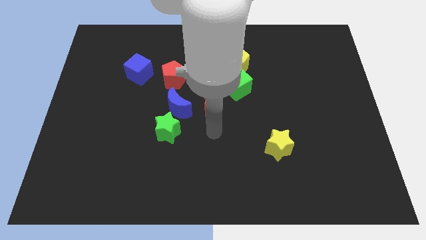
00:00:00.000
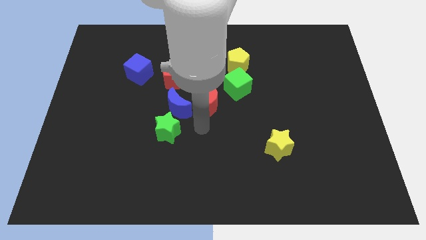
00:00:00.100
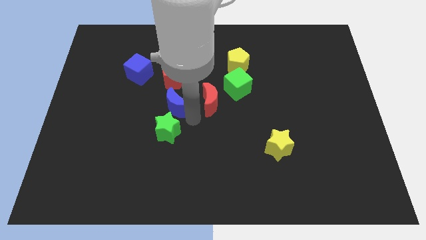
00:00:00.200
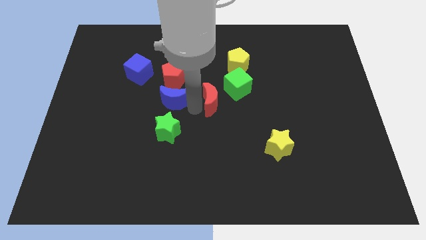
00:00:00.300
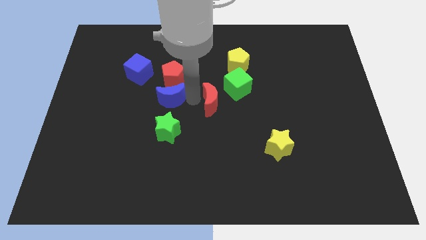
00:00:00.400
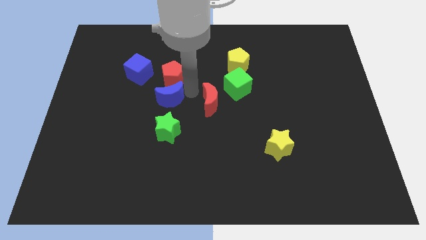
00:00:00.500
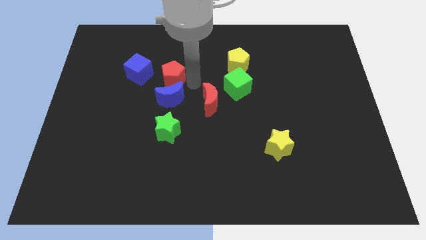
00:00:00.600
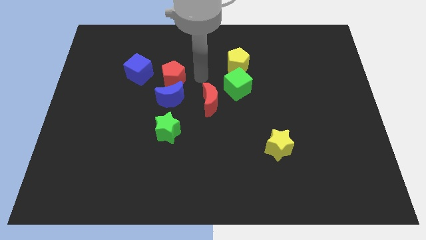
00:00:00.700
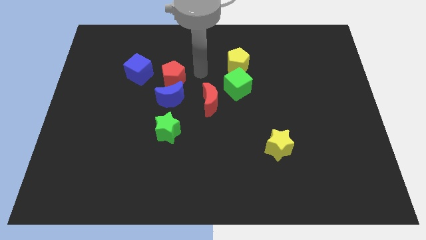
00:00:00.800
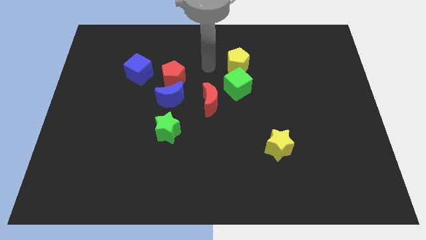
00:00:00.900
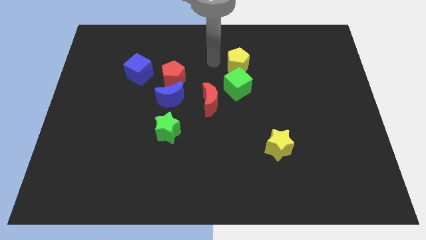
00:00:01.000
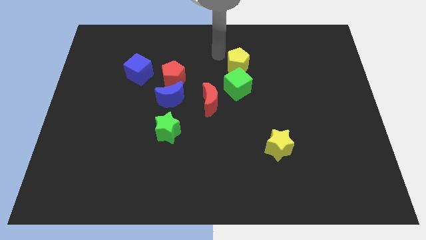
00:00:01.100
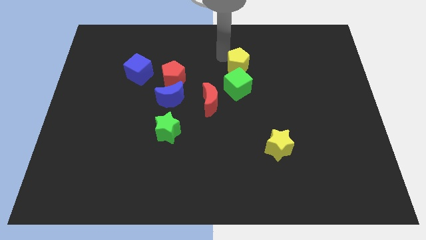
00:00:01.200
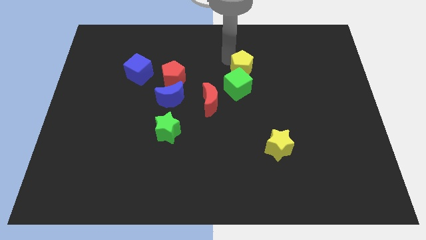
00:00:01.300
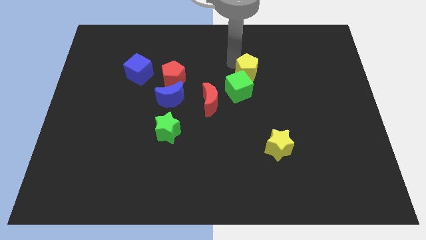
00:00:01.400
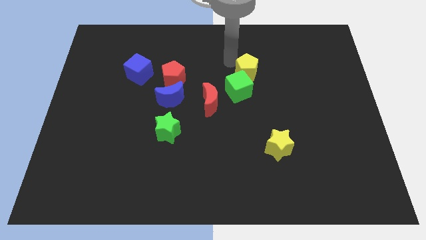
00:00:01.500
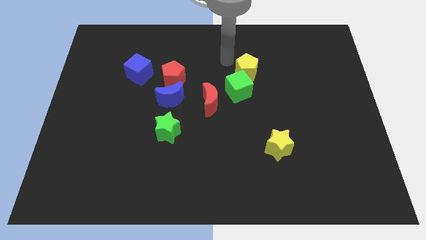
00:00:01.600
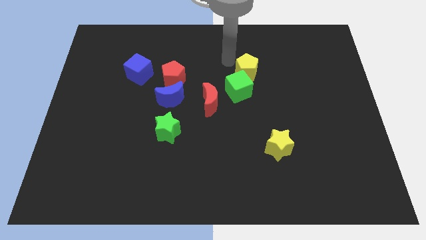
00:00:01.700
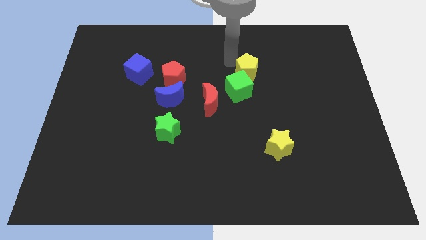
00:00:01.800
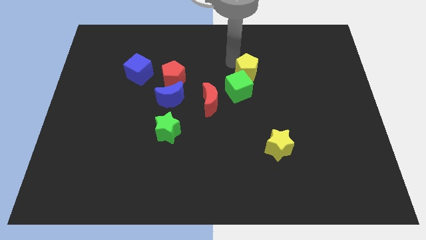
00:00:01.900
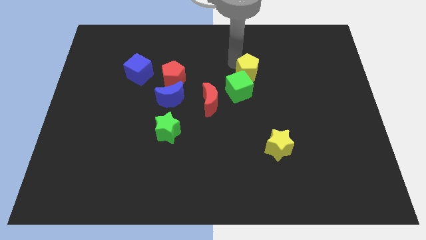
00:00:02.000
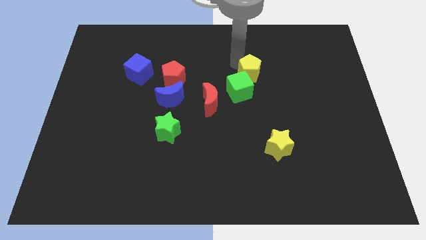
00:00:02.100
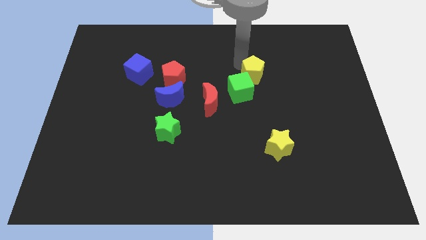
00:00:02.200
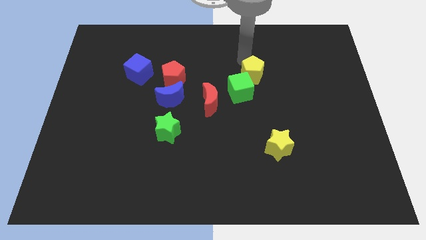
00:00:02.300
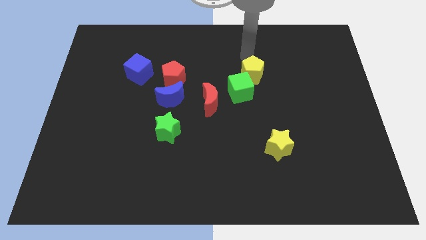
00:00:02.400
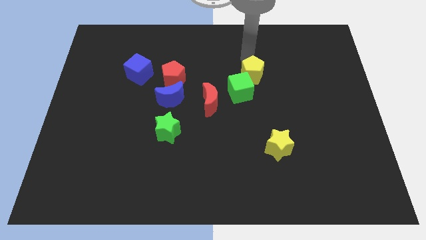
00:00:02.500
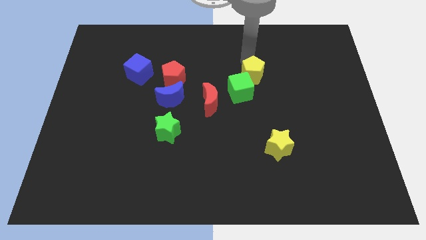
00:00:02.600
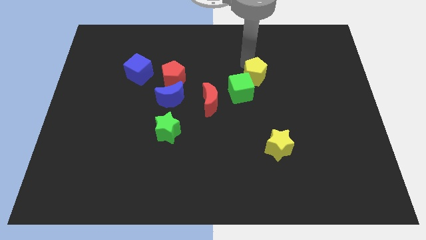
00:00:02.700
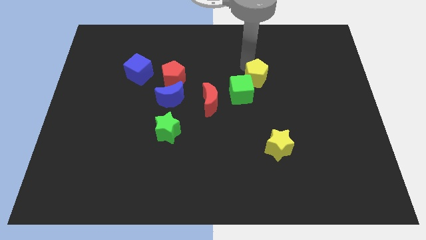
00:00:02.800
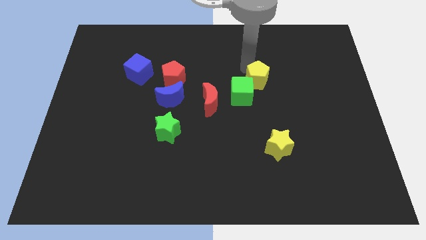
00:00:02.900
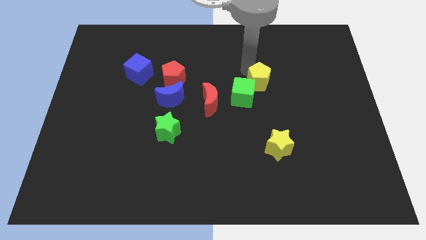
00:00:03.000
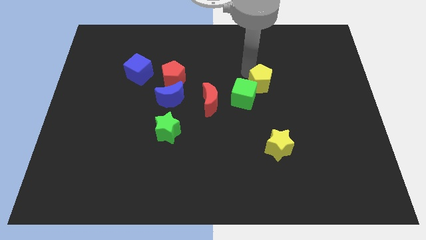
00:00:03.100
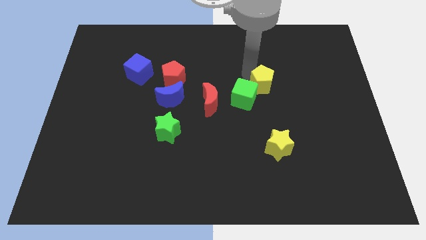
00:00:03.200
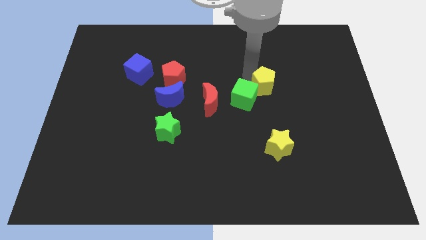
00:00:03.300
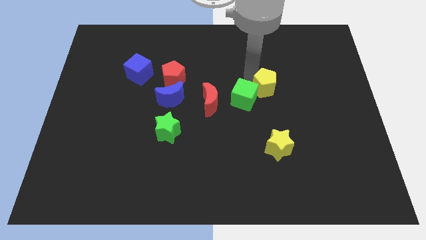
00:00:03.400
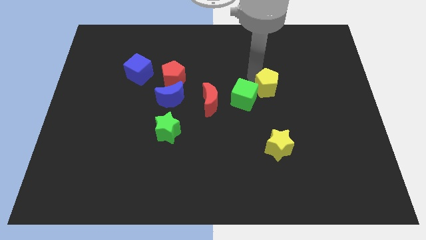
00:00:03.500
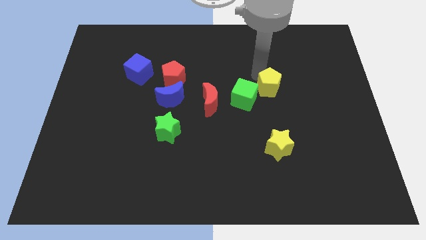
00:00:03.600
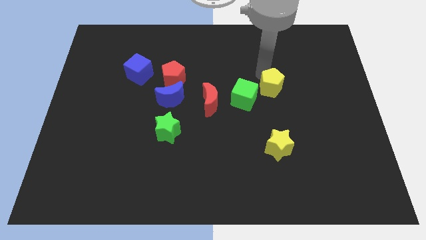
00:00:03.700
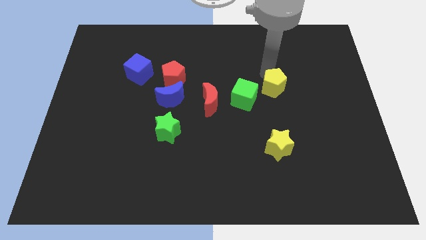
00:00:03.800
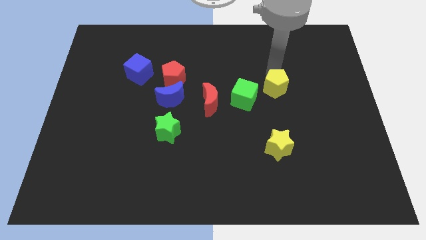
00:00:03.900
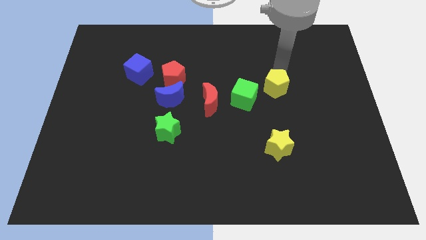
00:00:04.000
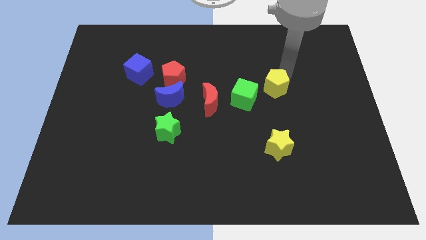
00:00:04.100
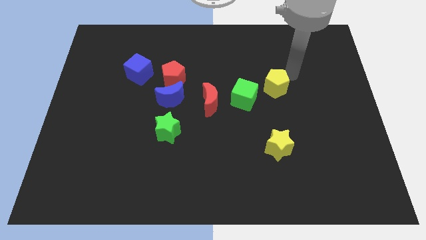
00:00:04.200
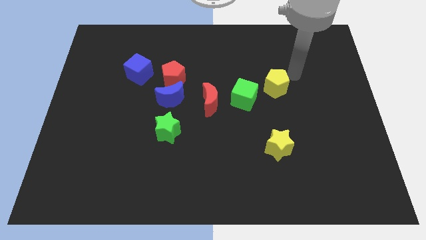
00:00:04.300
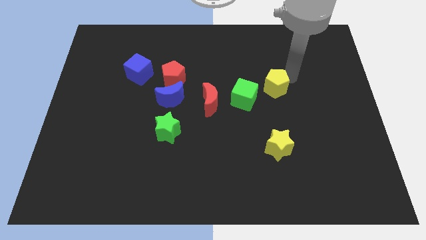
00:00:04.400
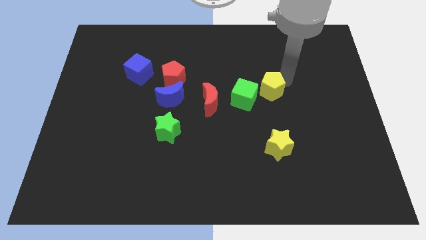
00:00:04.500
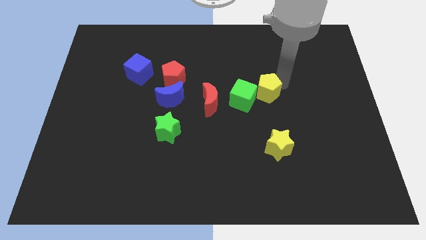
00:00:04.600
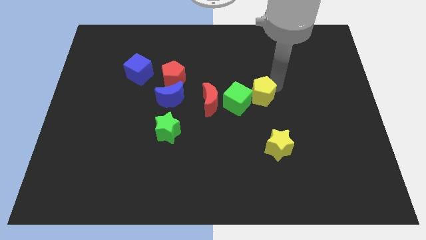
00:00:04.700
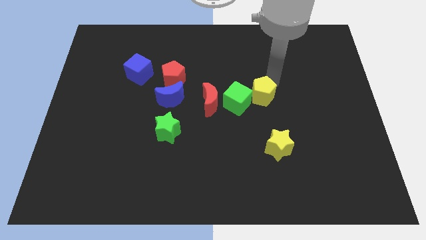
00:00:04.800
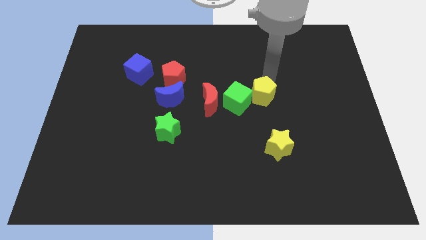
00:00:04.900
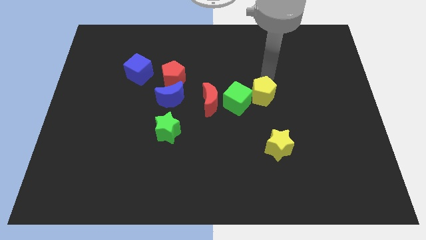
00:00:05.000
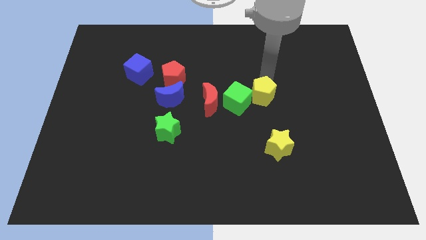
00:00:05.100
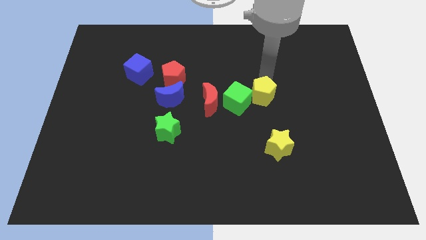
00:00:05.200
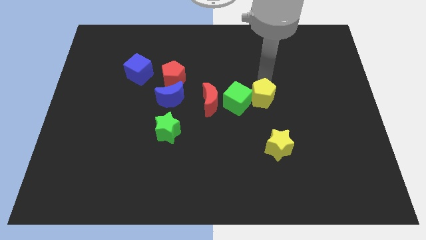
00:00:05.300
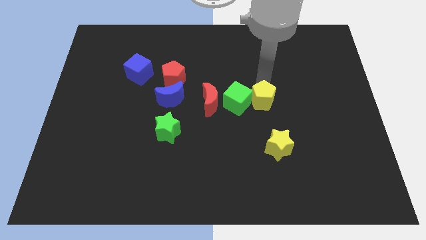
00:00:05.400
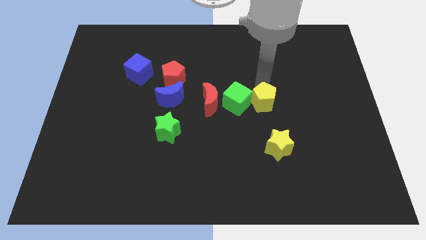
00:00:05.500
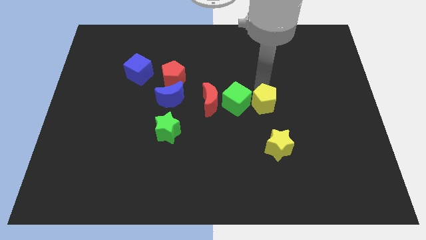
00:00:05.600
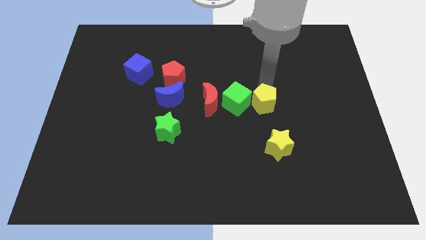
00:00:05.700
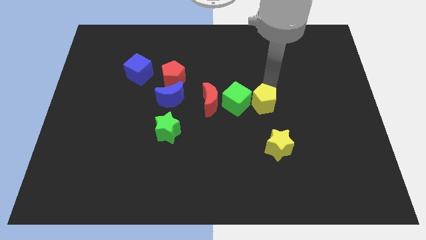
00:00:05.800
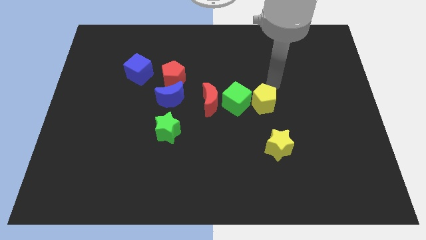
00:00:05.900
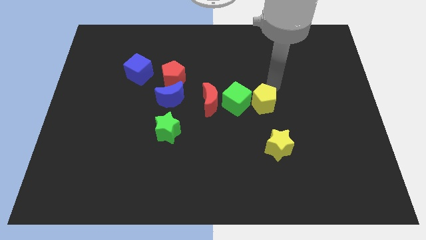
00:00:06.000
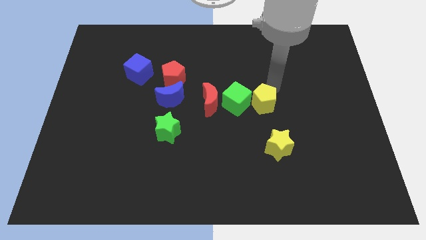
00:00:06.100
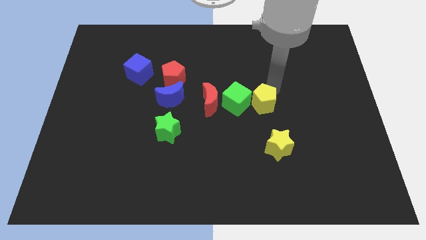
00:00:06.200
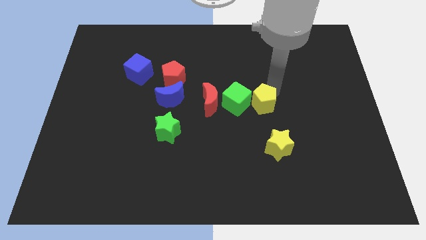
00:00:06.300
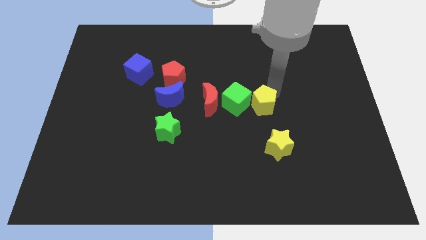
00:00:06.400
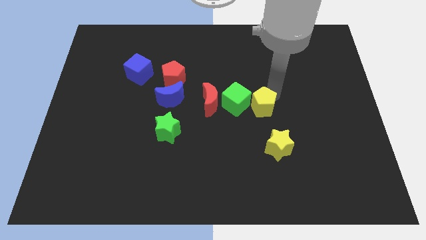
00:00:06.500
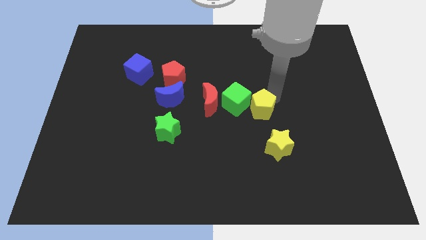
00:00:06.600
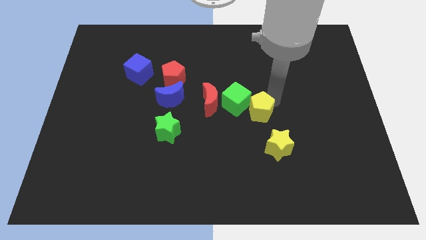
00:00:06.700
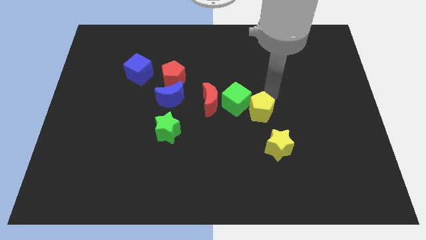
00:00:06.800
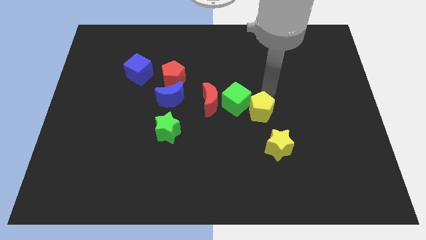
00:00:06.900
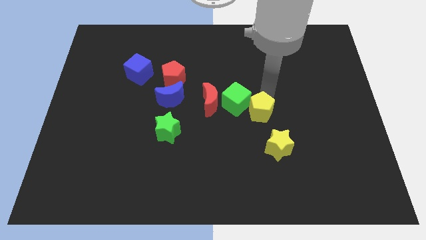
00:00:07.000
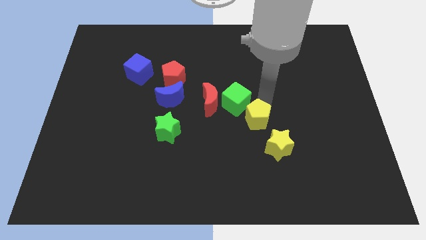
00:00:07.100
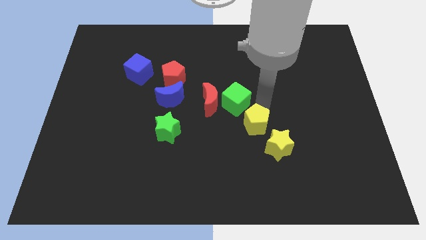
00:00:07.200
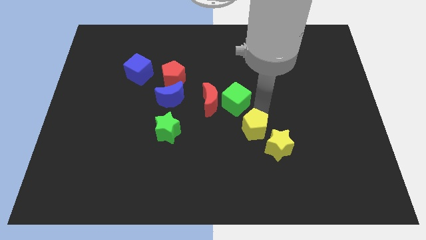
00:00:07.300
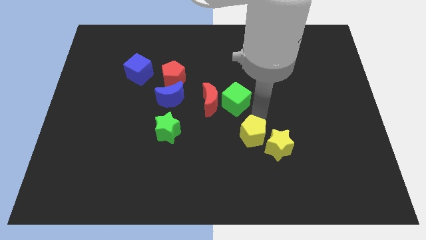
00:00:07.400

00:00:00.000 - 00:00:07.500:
push the yellow pentagon downwards

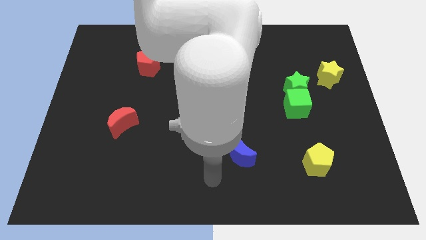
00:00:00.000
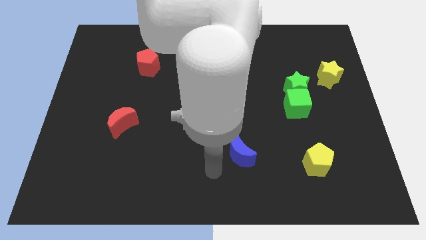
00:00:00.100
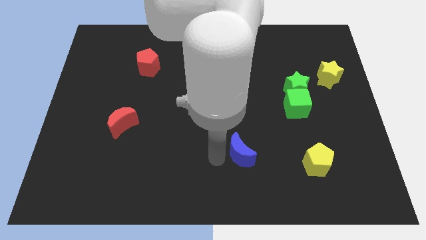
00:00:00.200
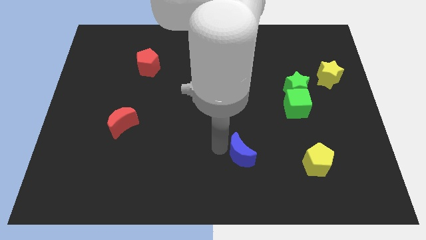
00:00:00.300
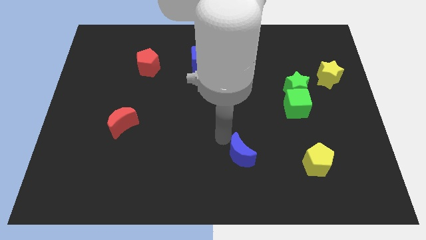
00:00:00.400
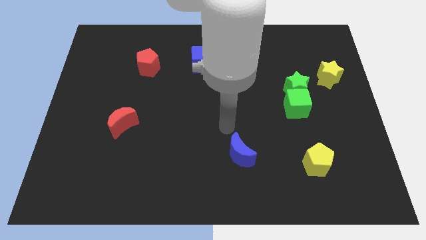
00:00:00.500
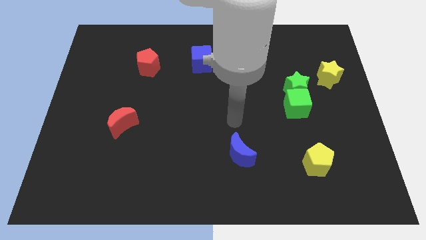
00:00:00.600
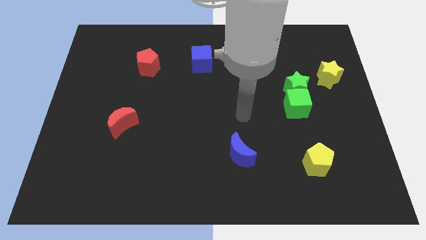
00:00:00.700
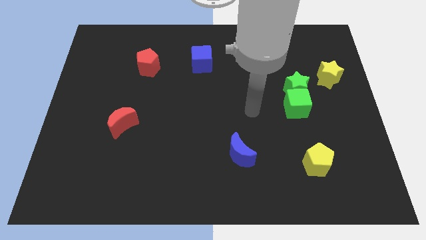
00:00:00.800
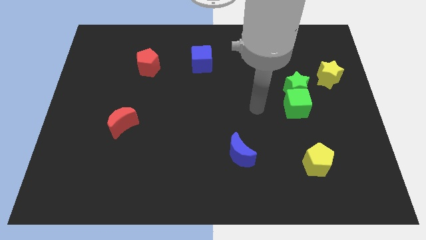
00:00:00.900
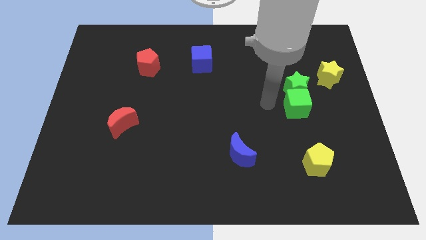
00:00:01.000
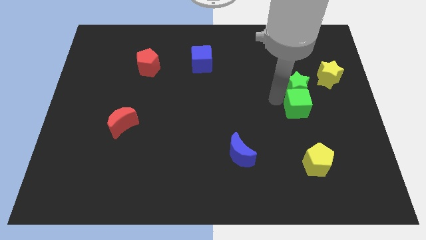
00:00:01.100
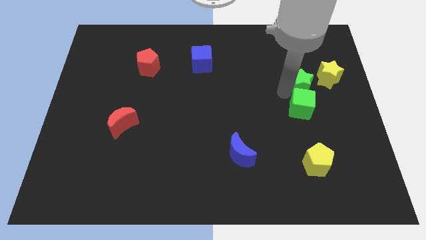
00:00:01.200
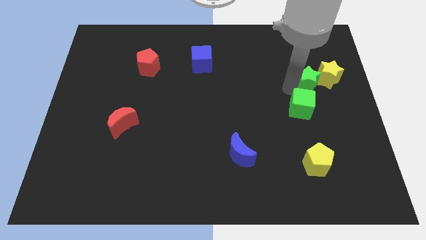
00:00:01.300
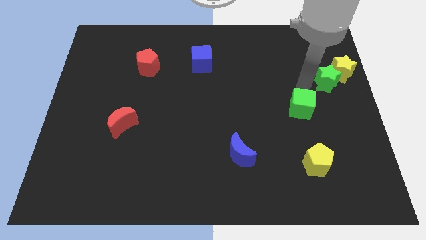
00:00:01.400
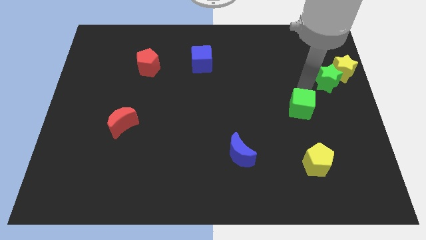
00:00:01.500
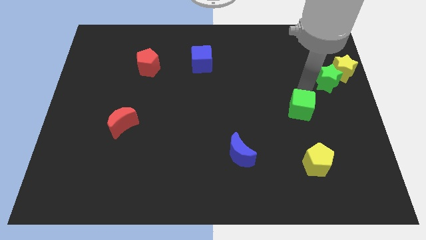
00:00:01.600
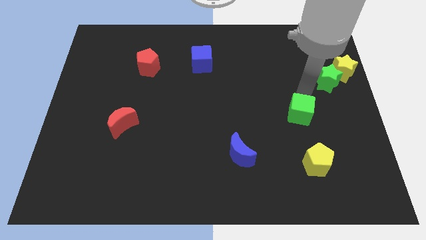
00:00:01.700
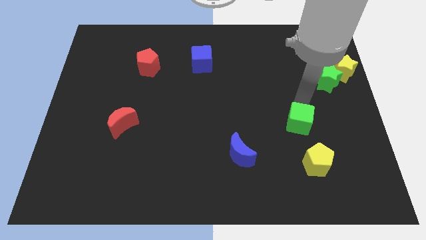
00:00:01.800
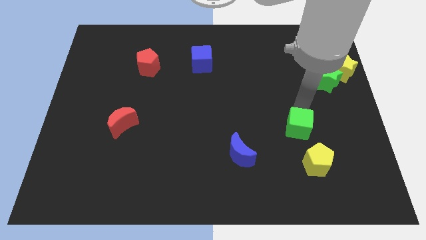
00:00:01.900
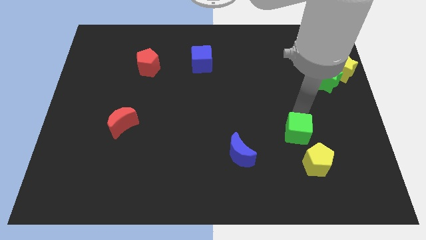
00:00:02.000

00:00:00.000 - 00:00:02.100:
move the green cube down a little
